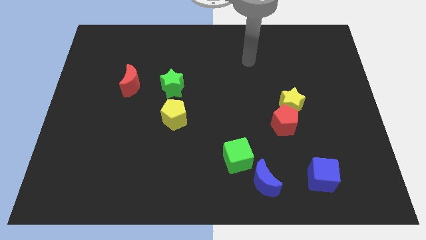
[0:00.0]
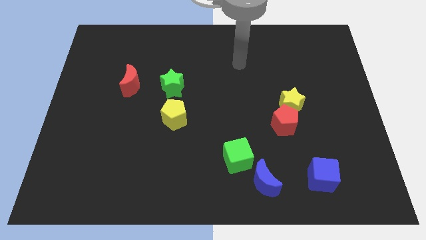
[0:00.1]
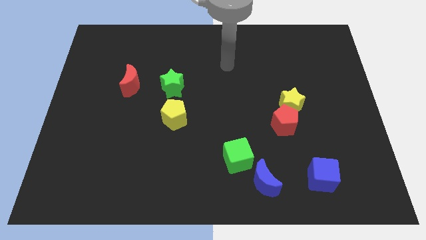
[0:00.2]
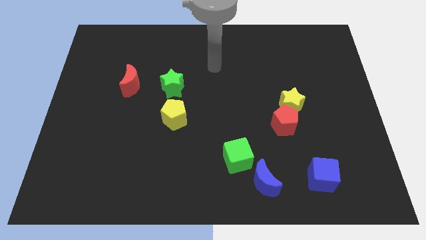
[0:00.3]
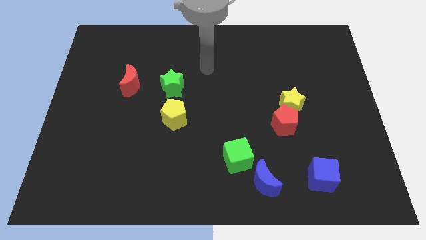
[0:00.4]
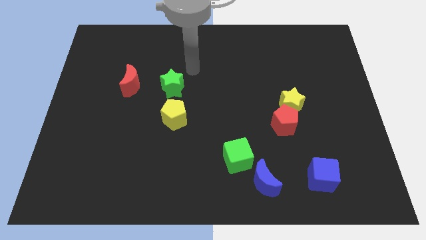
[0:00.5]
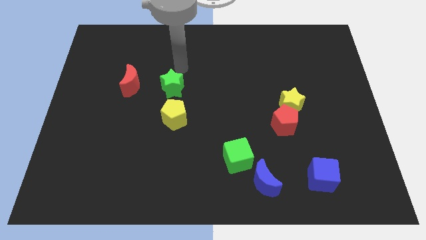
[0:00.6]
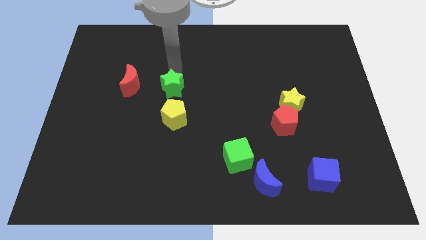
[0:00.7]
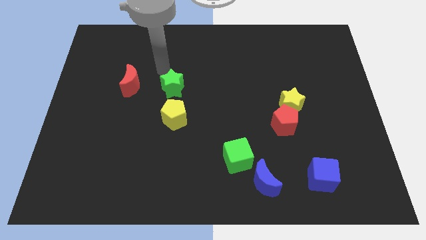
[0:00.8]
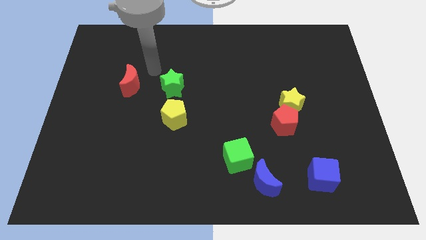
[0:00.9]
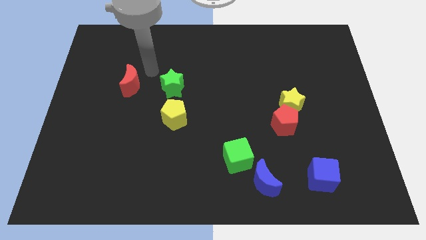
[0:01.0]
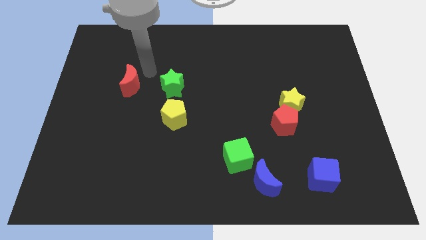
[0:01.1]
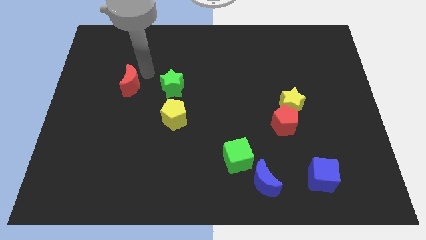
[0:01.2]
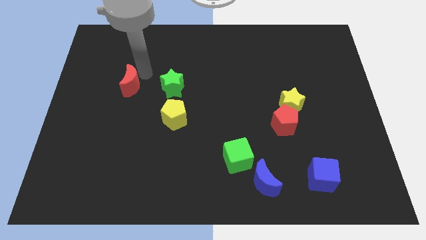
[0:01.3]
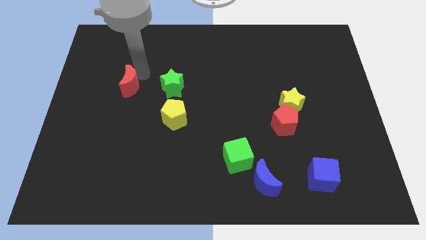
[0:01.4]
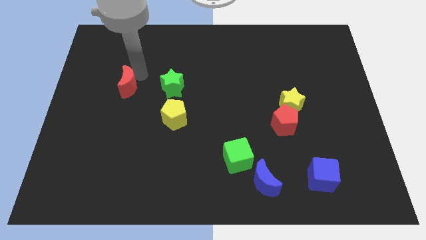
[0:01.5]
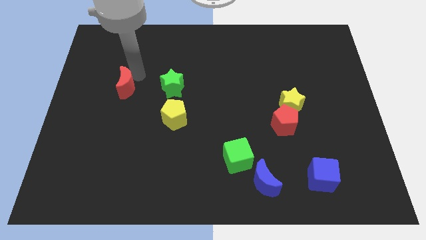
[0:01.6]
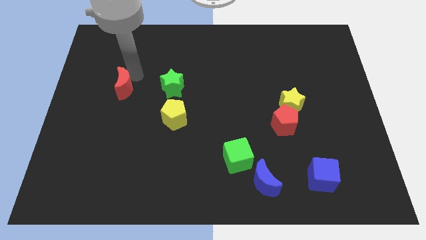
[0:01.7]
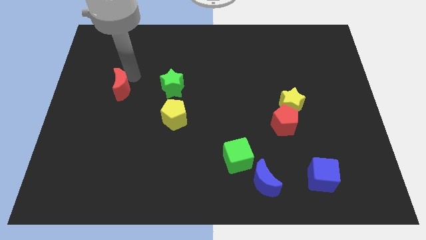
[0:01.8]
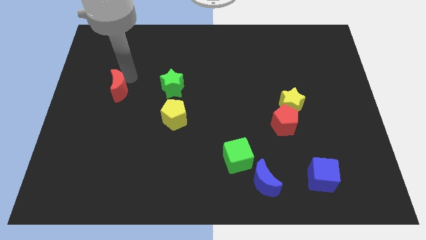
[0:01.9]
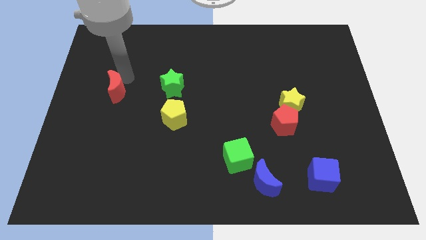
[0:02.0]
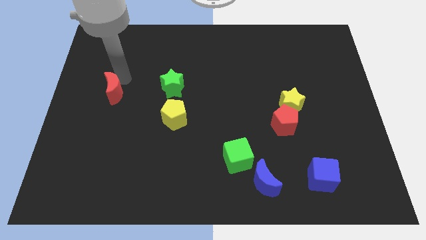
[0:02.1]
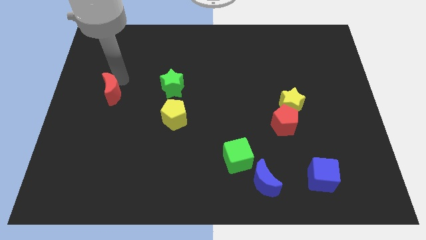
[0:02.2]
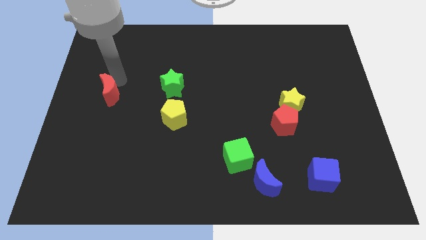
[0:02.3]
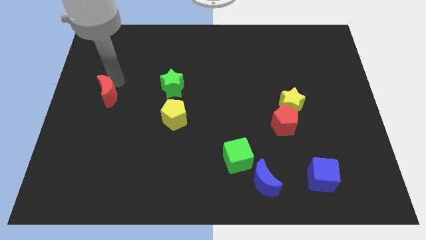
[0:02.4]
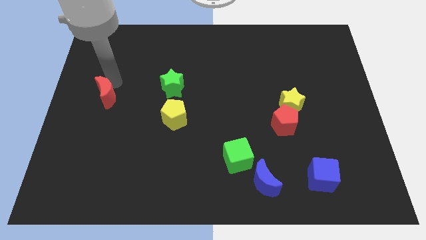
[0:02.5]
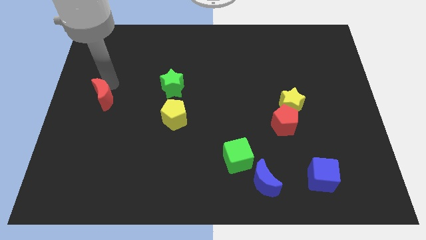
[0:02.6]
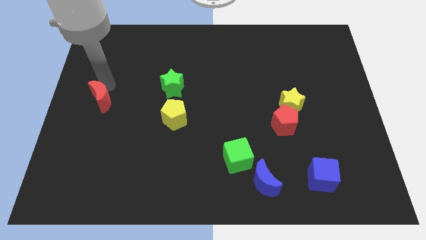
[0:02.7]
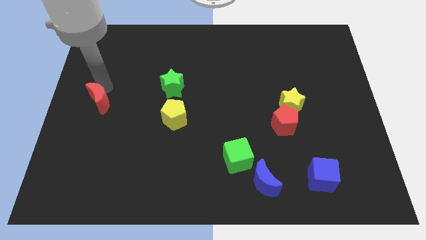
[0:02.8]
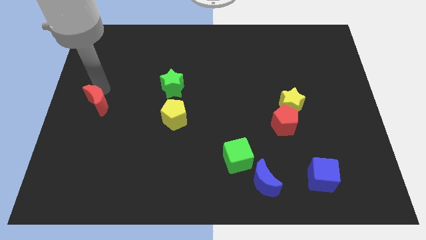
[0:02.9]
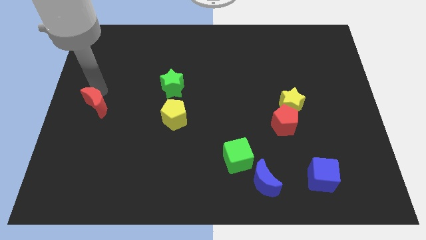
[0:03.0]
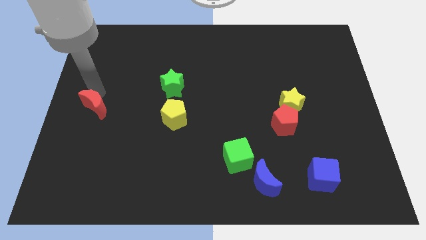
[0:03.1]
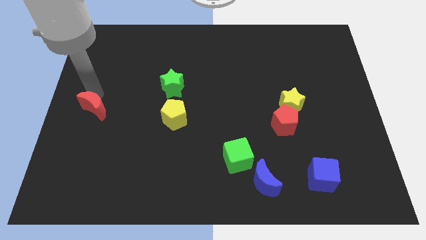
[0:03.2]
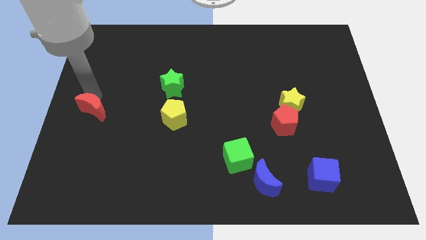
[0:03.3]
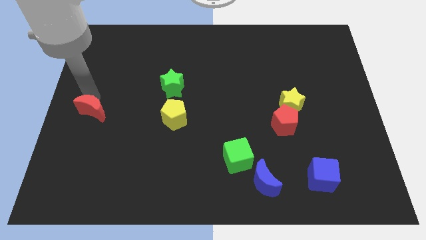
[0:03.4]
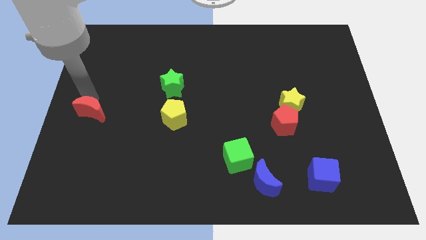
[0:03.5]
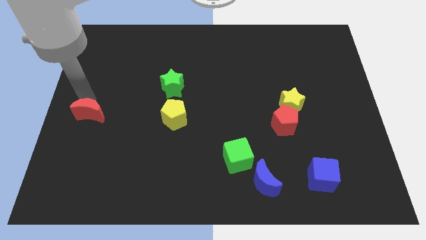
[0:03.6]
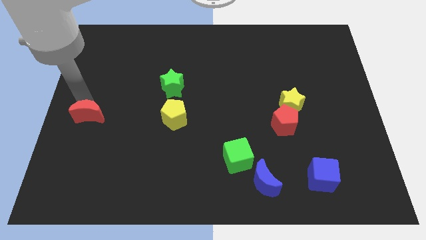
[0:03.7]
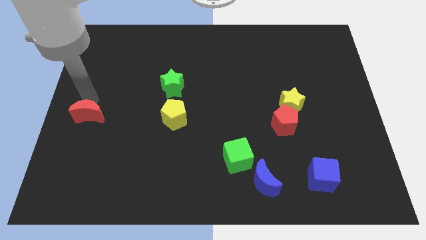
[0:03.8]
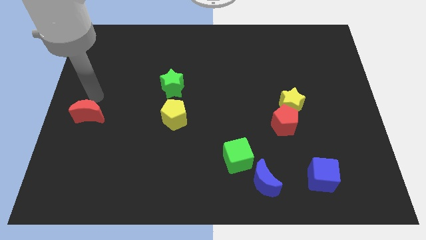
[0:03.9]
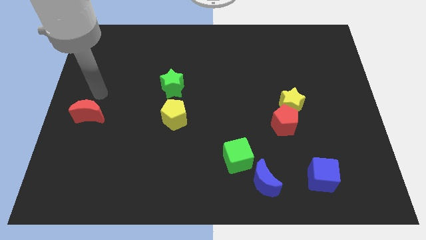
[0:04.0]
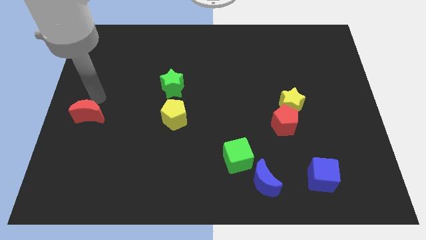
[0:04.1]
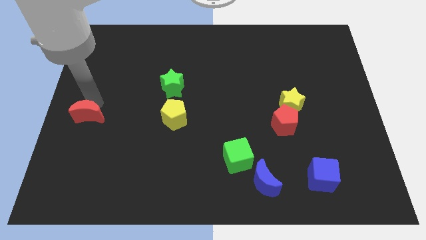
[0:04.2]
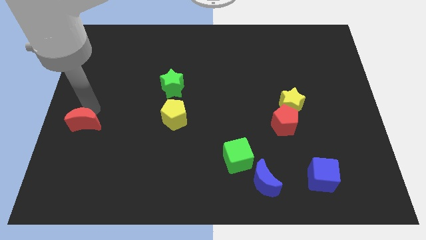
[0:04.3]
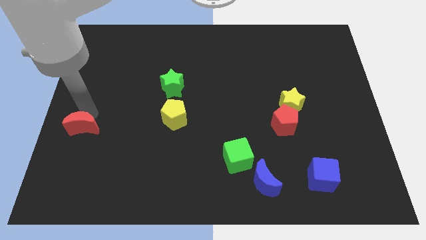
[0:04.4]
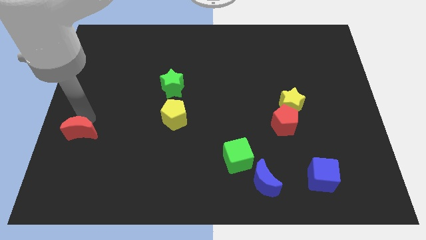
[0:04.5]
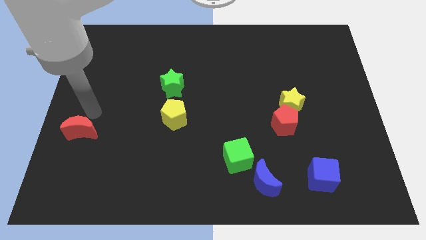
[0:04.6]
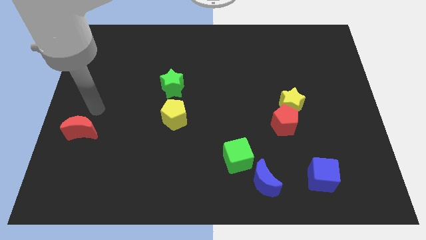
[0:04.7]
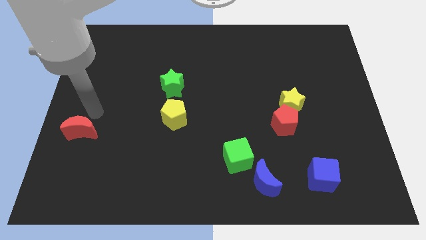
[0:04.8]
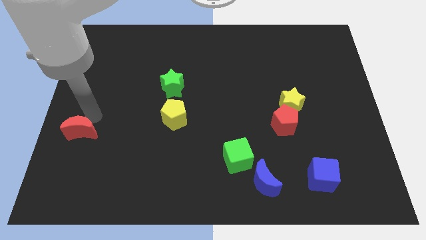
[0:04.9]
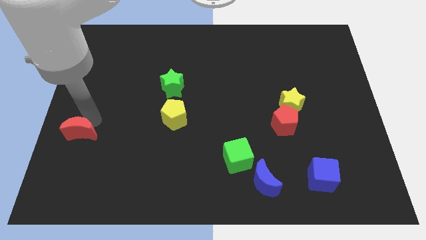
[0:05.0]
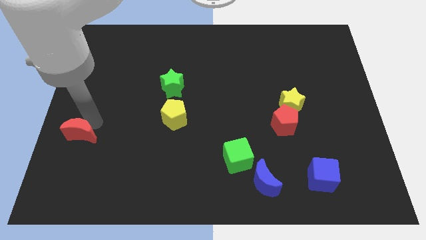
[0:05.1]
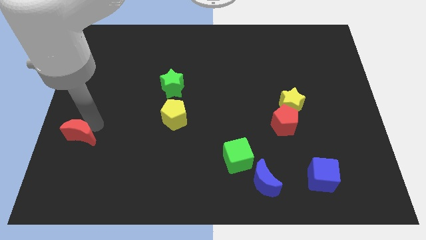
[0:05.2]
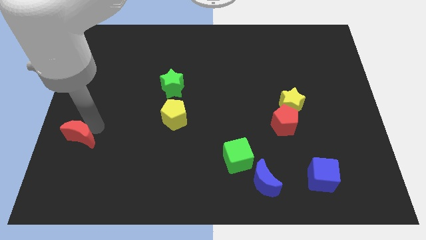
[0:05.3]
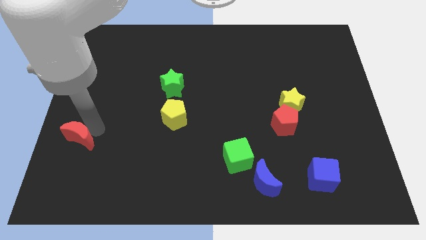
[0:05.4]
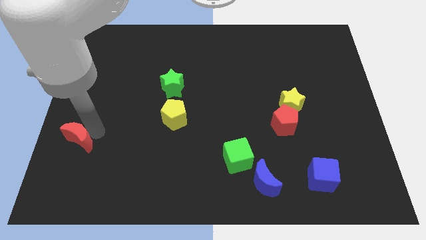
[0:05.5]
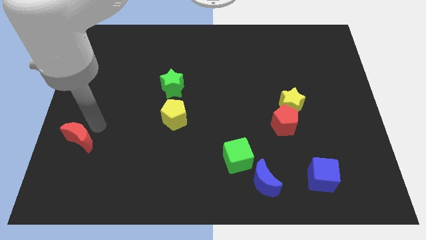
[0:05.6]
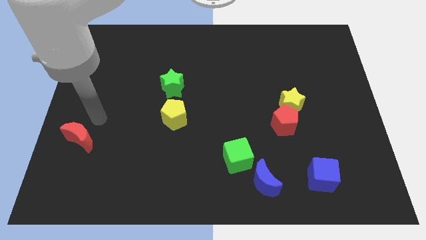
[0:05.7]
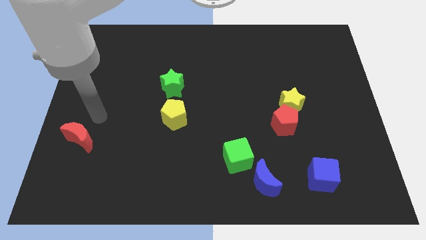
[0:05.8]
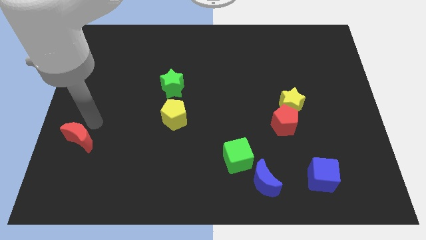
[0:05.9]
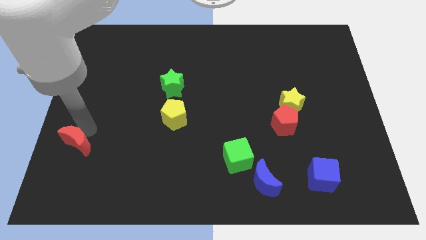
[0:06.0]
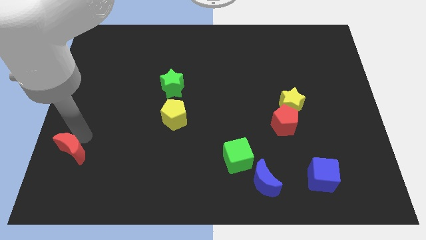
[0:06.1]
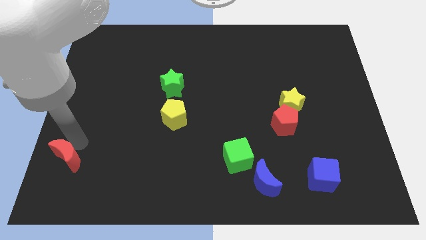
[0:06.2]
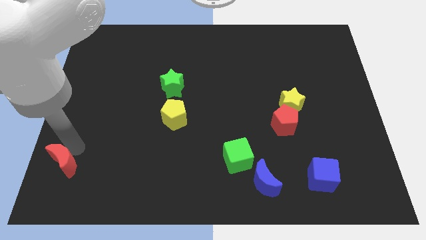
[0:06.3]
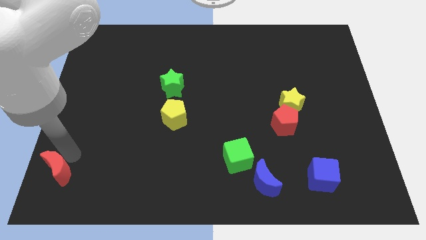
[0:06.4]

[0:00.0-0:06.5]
move the red moon to the bottom left corner
